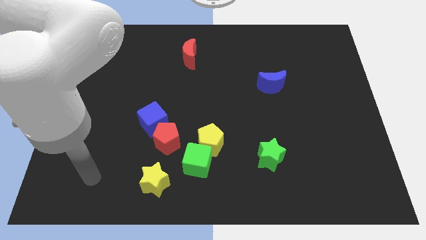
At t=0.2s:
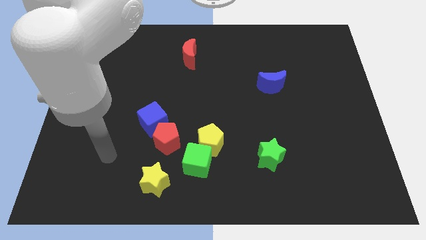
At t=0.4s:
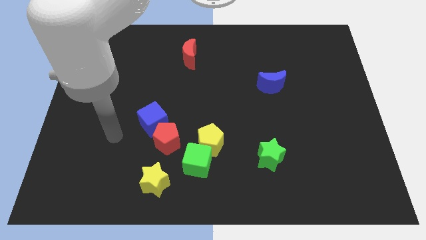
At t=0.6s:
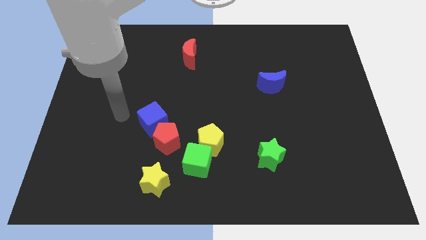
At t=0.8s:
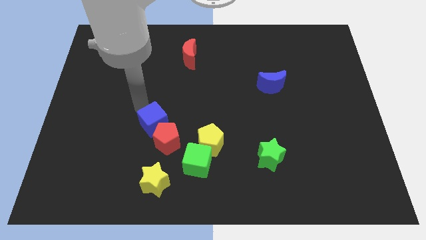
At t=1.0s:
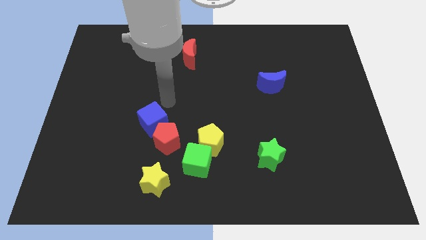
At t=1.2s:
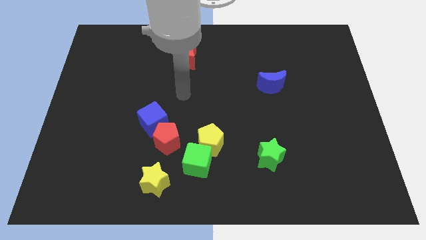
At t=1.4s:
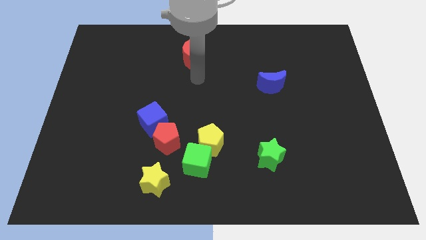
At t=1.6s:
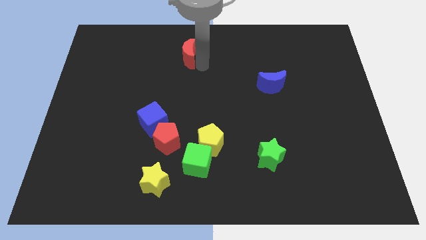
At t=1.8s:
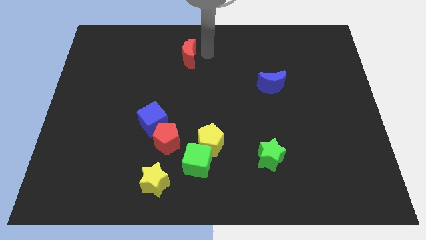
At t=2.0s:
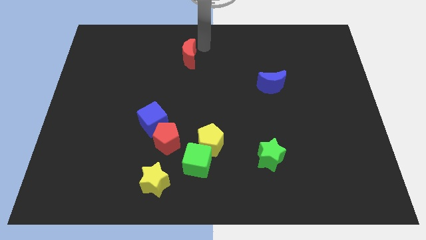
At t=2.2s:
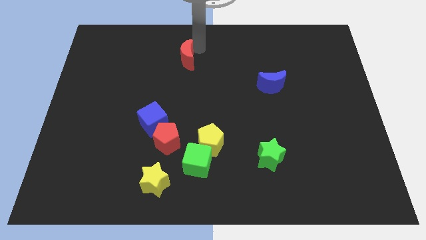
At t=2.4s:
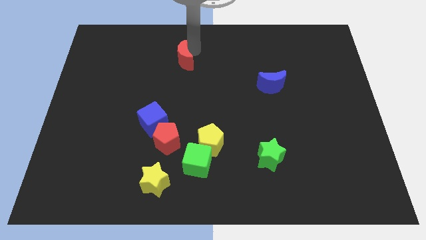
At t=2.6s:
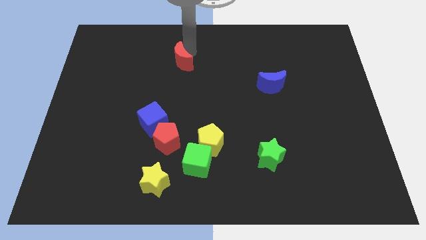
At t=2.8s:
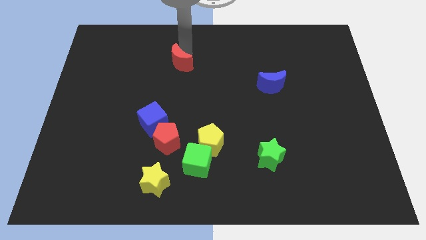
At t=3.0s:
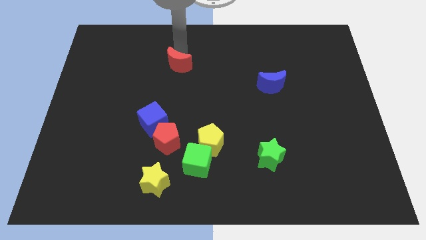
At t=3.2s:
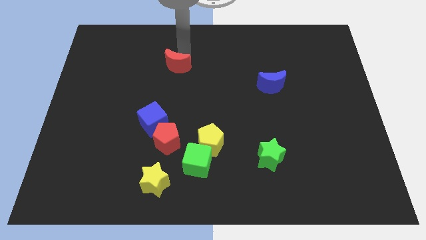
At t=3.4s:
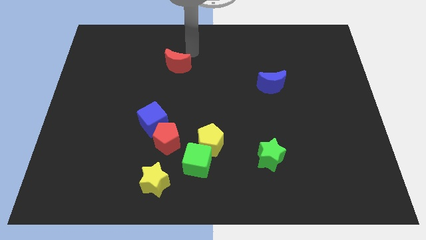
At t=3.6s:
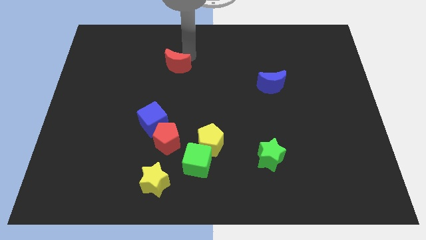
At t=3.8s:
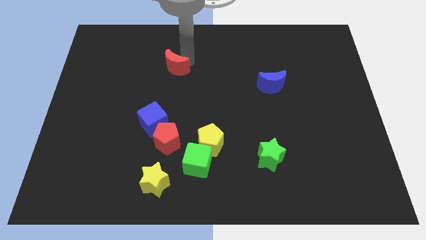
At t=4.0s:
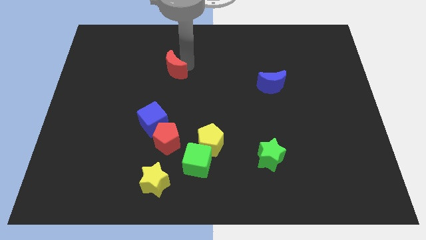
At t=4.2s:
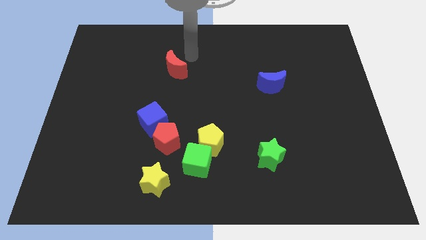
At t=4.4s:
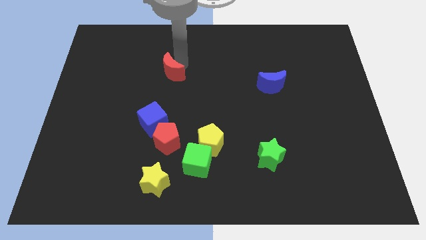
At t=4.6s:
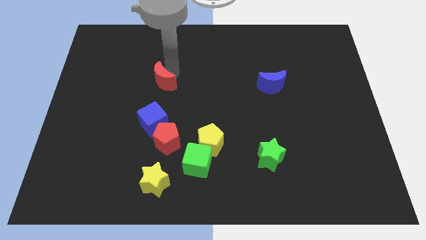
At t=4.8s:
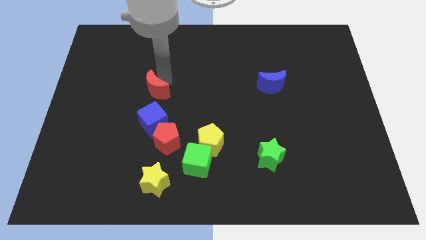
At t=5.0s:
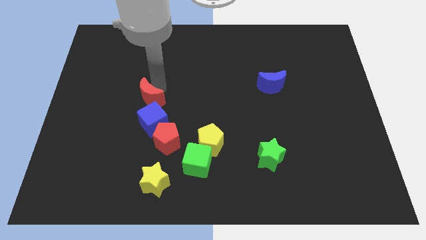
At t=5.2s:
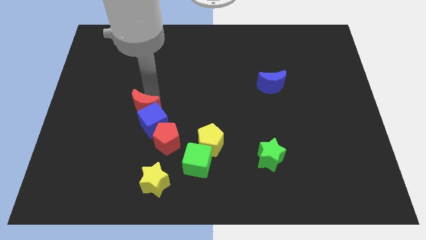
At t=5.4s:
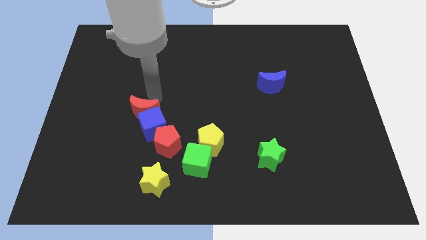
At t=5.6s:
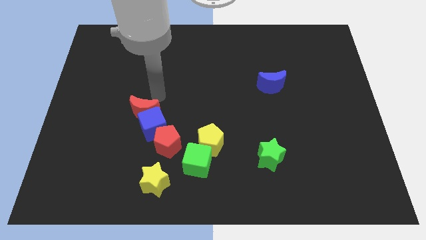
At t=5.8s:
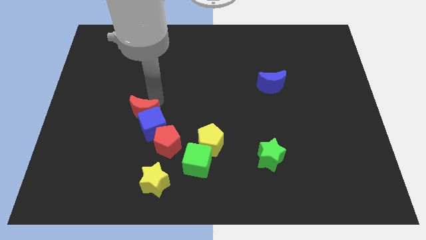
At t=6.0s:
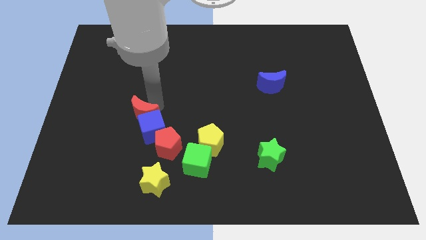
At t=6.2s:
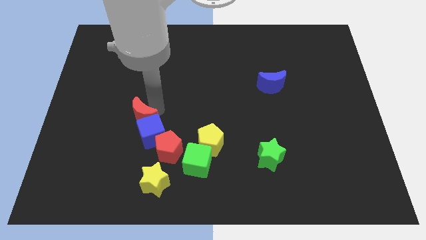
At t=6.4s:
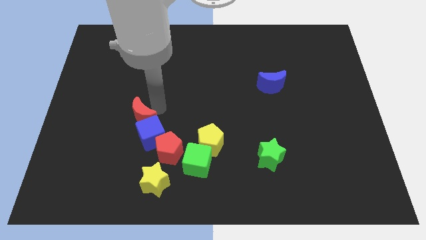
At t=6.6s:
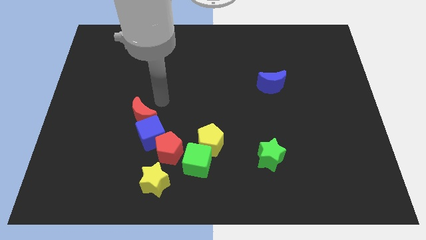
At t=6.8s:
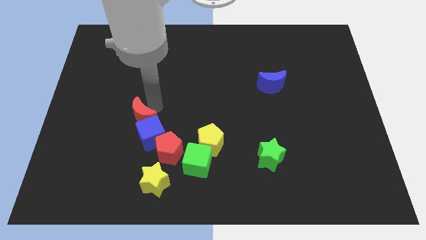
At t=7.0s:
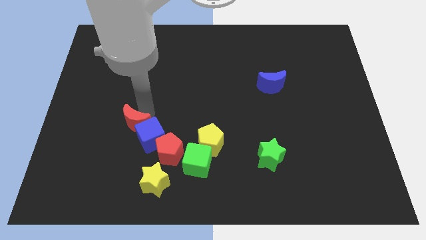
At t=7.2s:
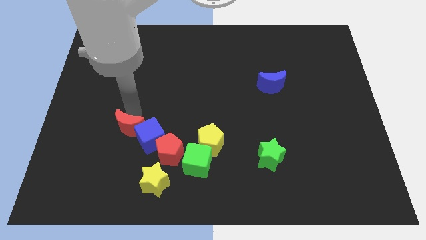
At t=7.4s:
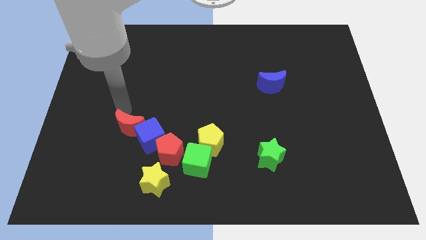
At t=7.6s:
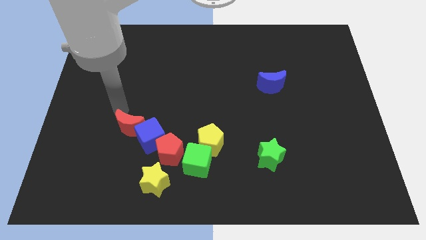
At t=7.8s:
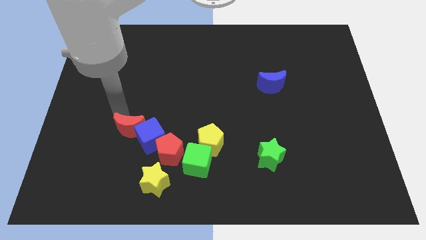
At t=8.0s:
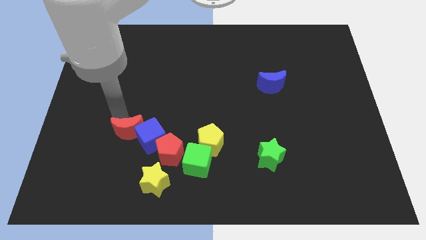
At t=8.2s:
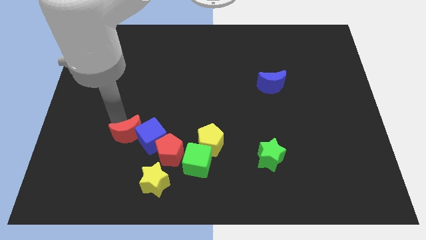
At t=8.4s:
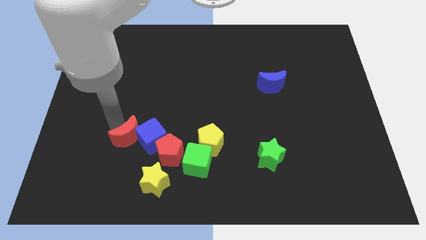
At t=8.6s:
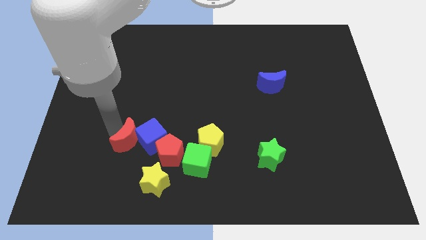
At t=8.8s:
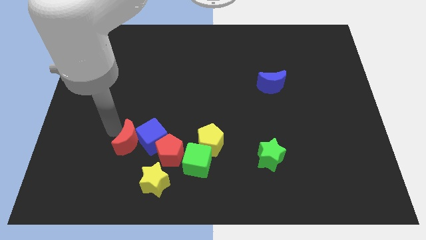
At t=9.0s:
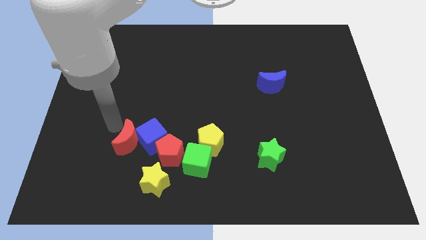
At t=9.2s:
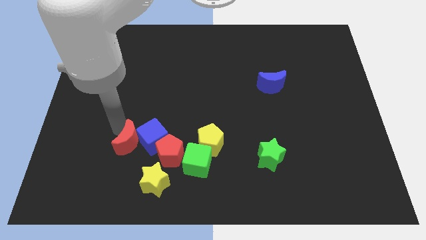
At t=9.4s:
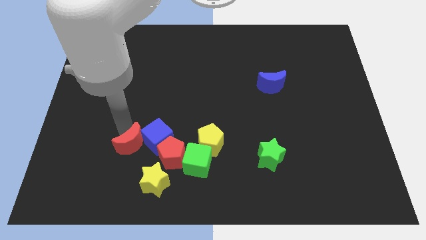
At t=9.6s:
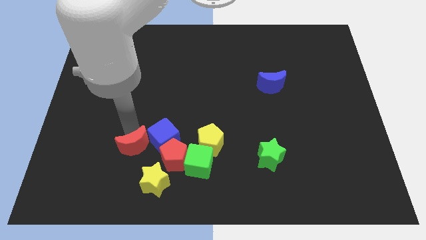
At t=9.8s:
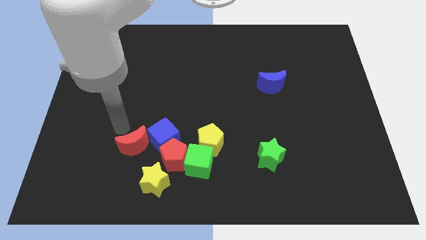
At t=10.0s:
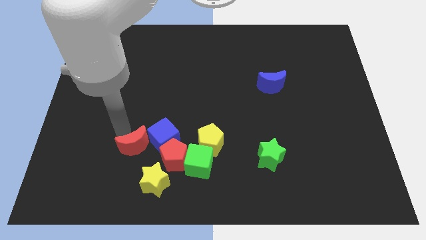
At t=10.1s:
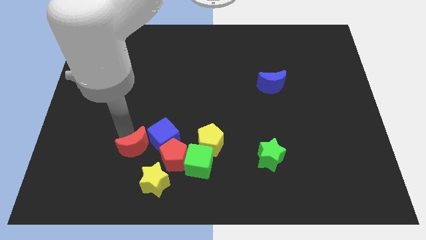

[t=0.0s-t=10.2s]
put the red moon to the left side of the green cube

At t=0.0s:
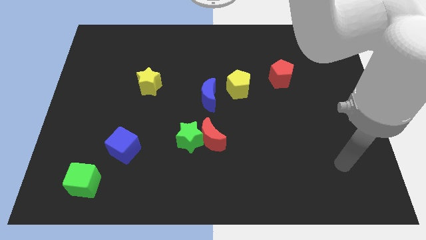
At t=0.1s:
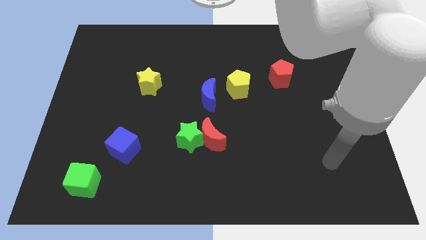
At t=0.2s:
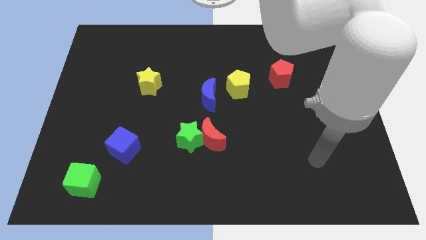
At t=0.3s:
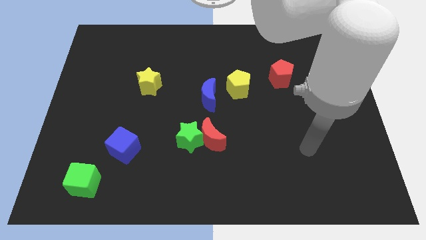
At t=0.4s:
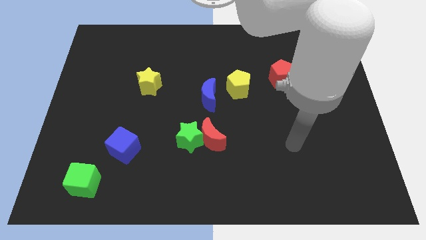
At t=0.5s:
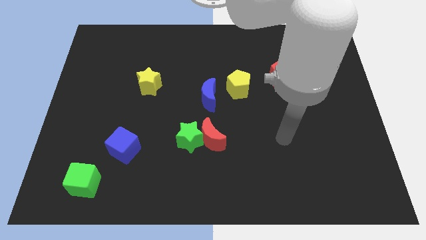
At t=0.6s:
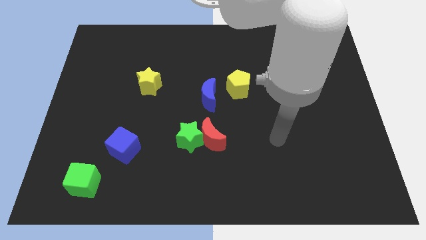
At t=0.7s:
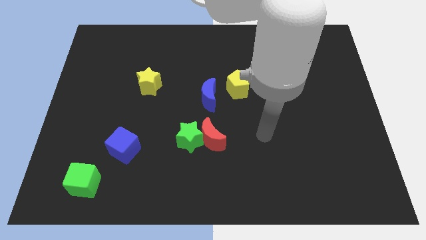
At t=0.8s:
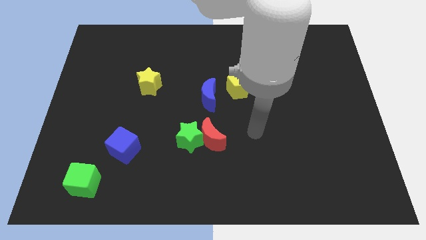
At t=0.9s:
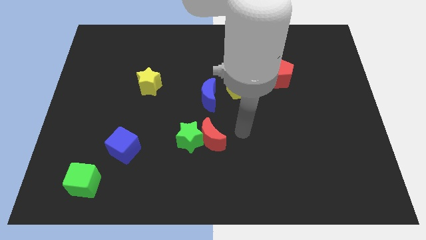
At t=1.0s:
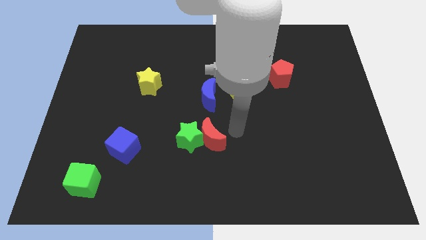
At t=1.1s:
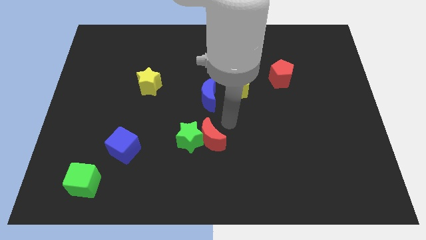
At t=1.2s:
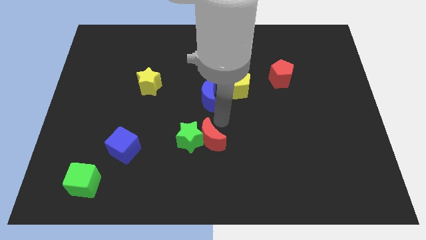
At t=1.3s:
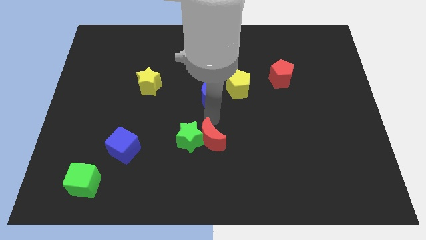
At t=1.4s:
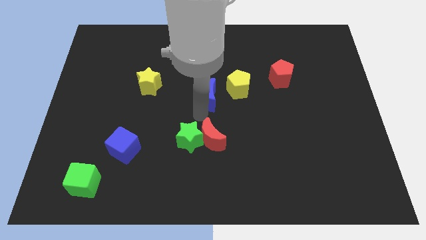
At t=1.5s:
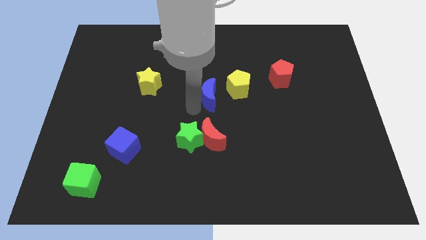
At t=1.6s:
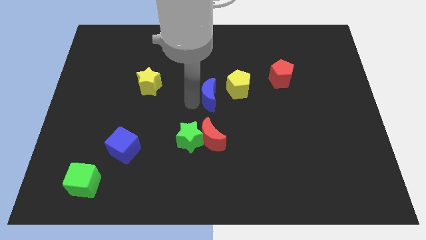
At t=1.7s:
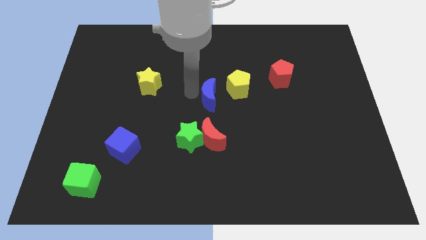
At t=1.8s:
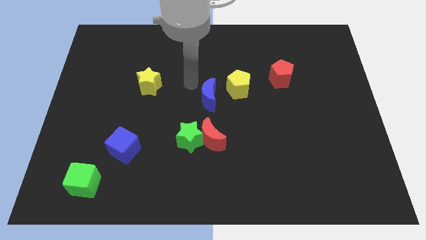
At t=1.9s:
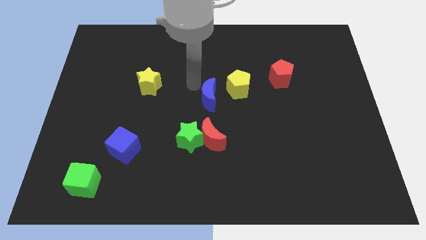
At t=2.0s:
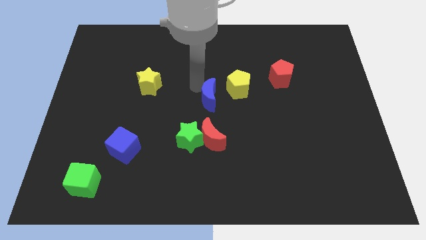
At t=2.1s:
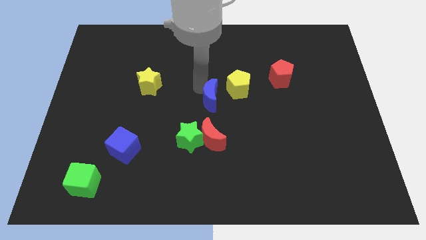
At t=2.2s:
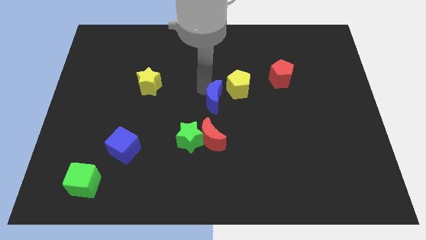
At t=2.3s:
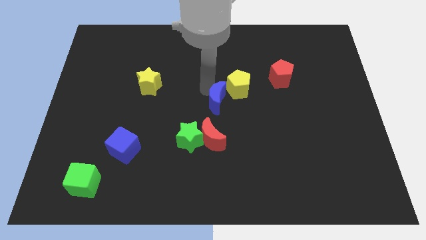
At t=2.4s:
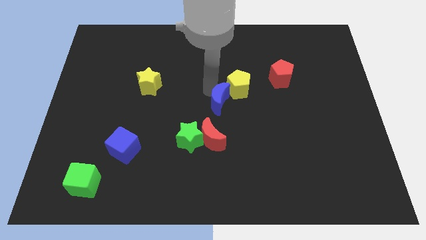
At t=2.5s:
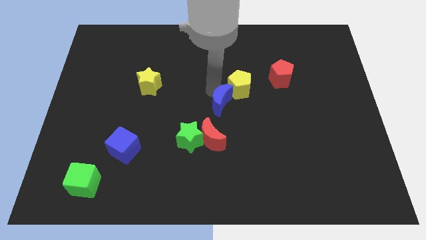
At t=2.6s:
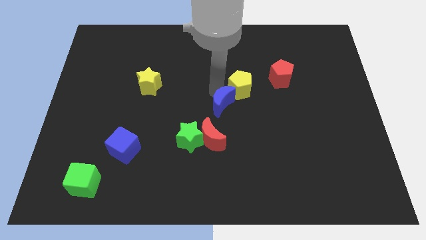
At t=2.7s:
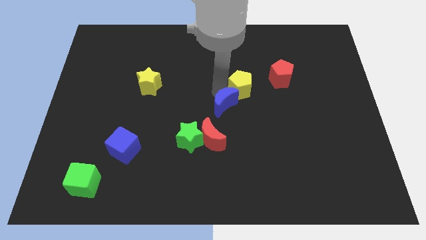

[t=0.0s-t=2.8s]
push the blue moon to the top right side of the red moon
